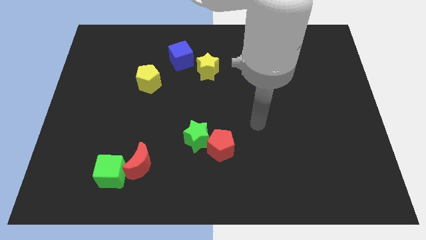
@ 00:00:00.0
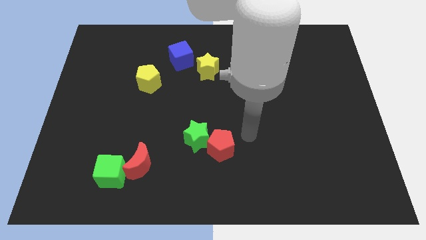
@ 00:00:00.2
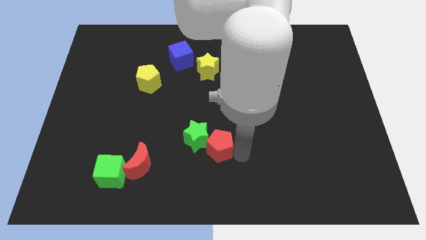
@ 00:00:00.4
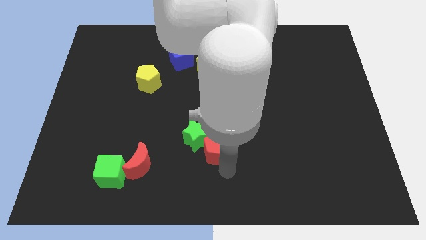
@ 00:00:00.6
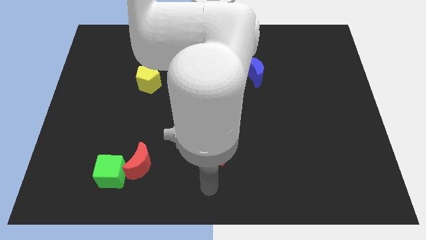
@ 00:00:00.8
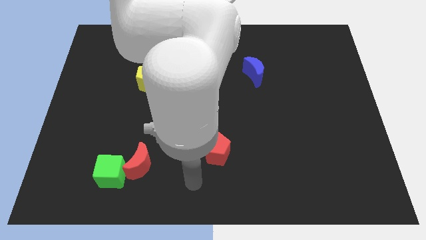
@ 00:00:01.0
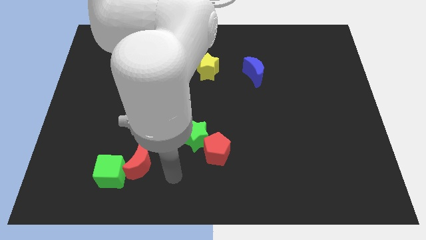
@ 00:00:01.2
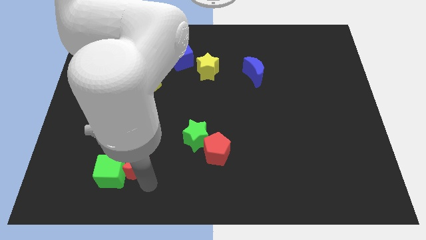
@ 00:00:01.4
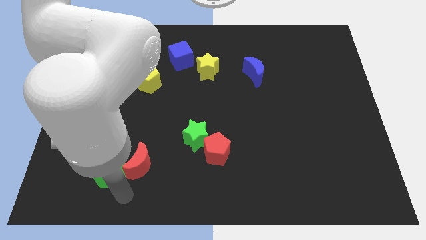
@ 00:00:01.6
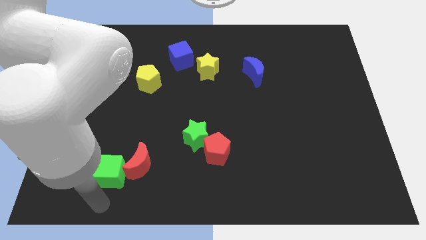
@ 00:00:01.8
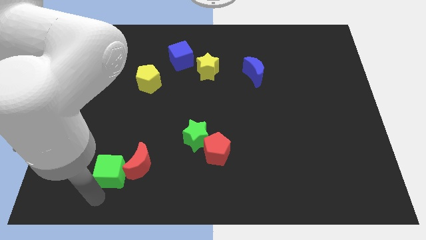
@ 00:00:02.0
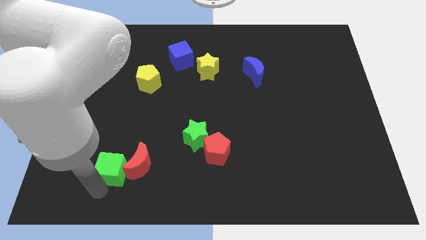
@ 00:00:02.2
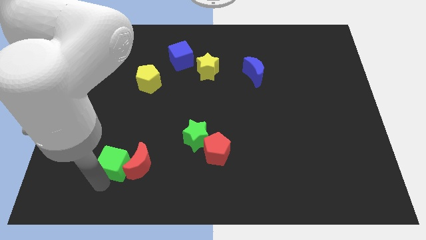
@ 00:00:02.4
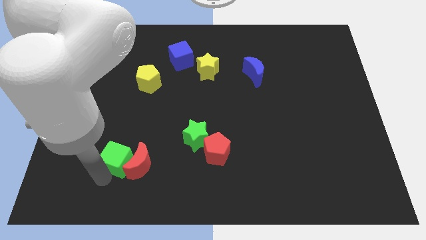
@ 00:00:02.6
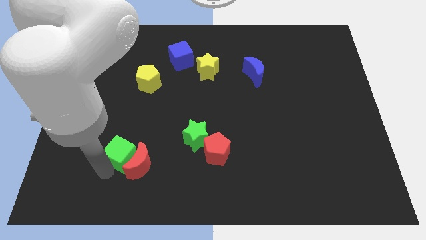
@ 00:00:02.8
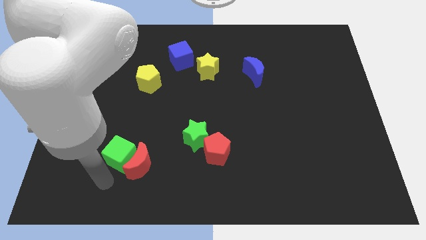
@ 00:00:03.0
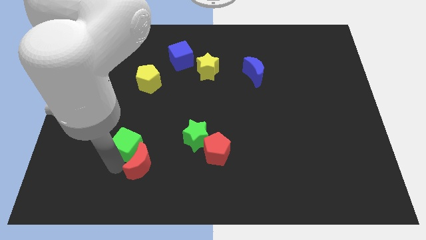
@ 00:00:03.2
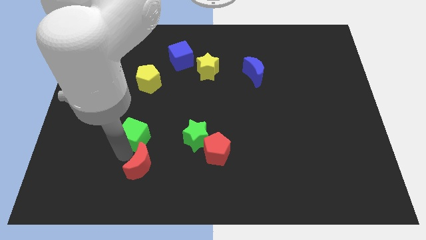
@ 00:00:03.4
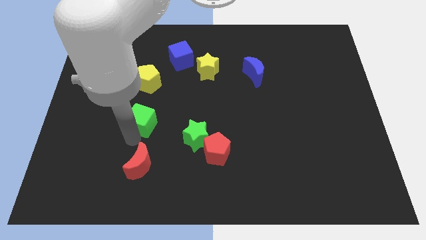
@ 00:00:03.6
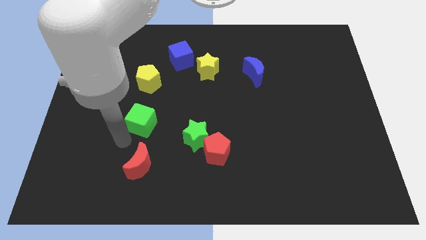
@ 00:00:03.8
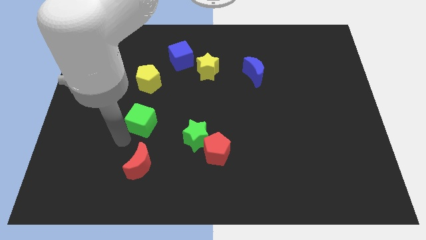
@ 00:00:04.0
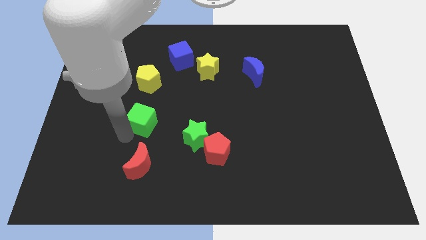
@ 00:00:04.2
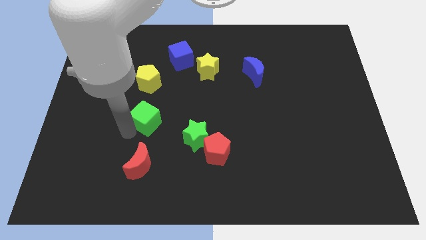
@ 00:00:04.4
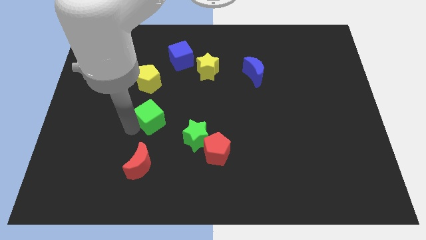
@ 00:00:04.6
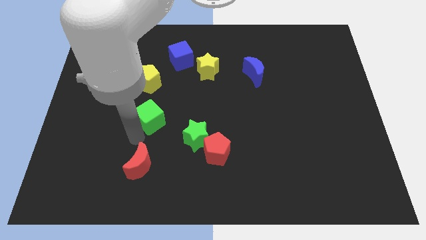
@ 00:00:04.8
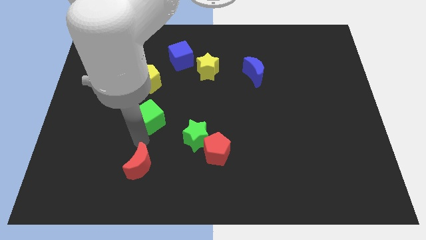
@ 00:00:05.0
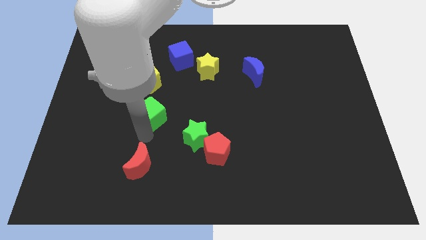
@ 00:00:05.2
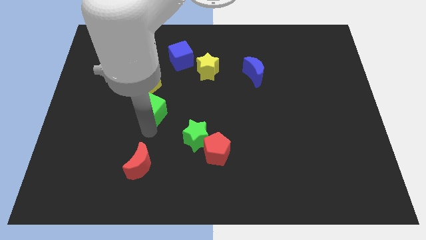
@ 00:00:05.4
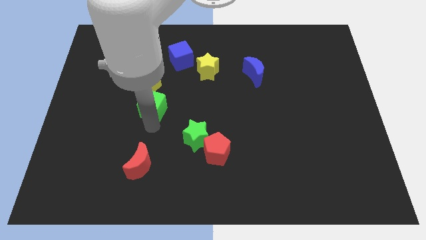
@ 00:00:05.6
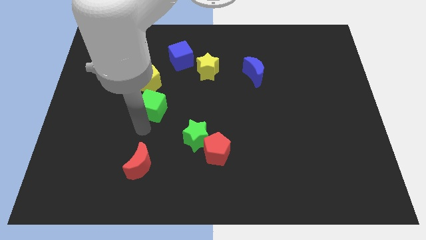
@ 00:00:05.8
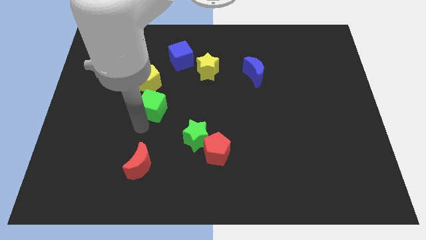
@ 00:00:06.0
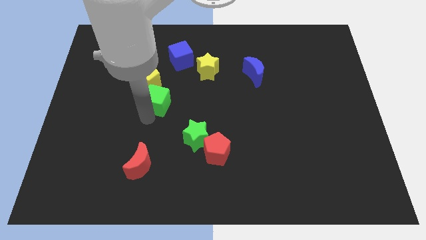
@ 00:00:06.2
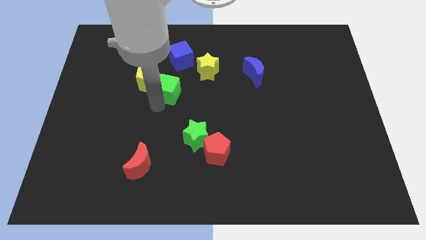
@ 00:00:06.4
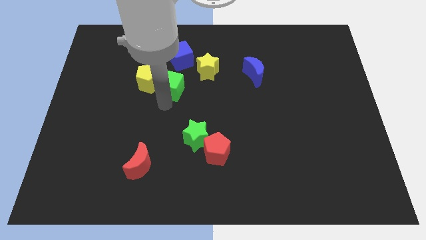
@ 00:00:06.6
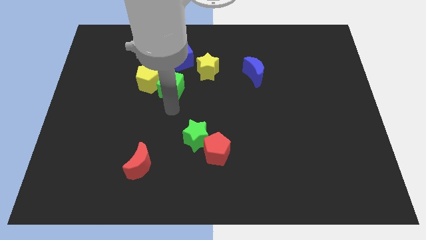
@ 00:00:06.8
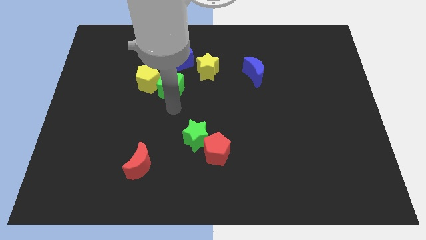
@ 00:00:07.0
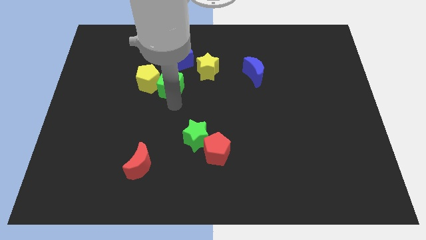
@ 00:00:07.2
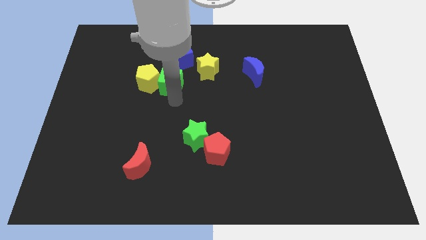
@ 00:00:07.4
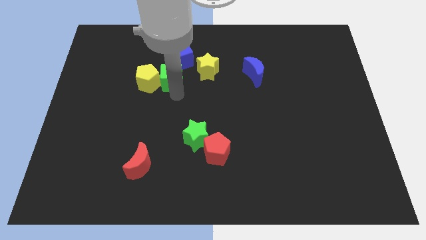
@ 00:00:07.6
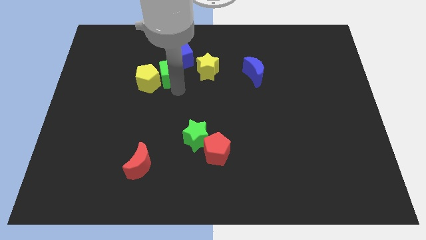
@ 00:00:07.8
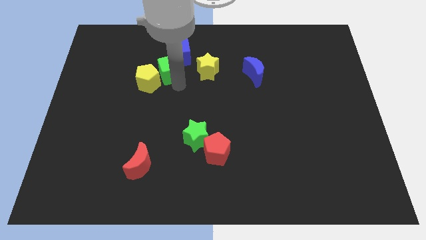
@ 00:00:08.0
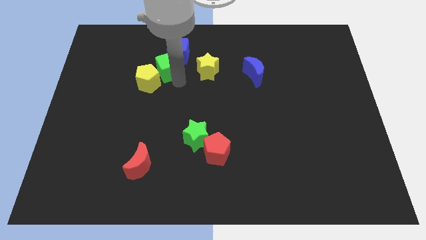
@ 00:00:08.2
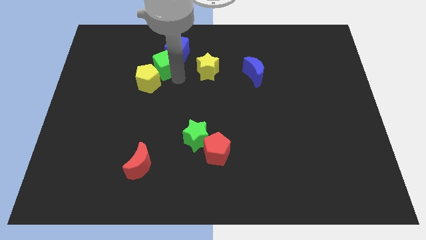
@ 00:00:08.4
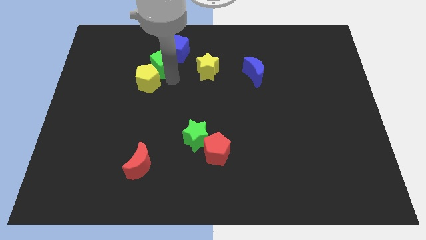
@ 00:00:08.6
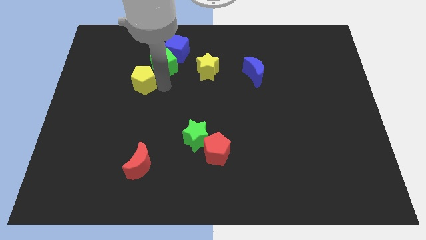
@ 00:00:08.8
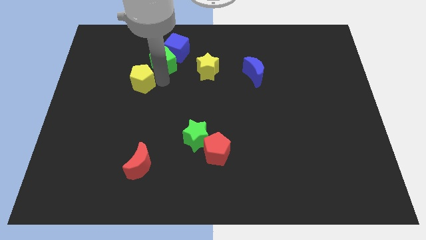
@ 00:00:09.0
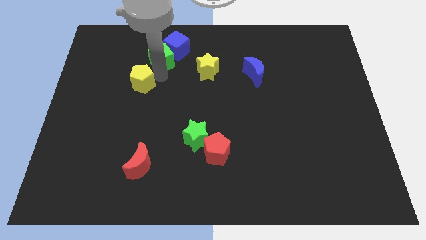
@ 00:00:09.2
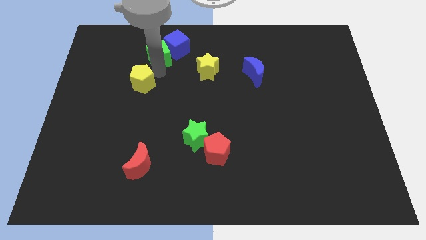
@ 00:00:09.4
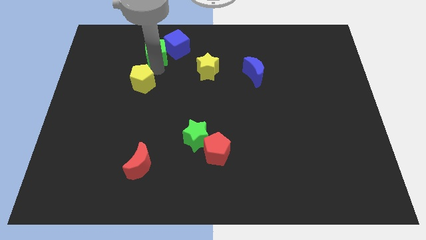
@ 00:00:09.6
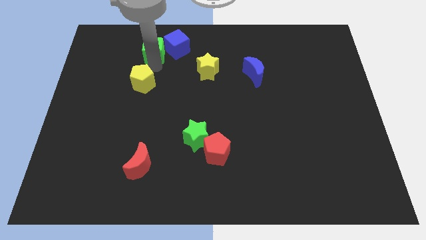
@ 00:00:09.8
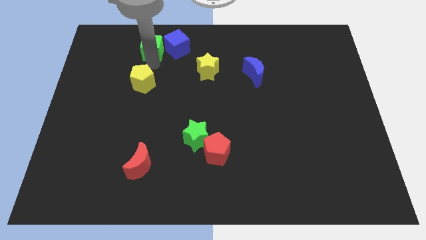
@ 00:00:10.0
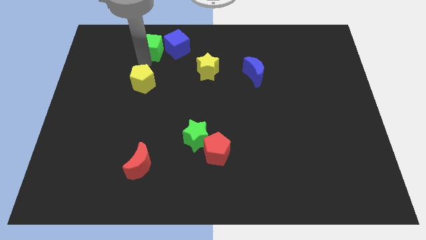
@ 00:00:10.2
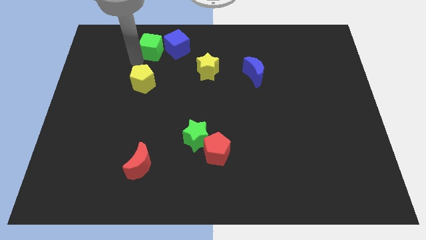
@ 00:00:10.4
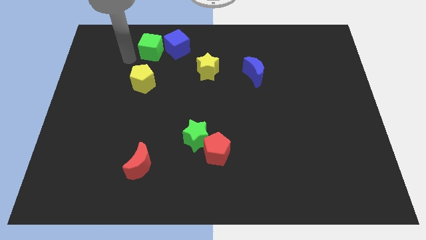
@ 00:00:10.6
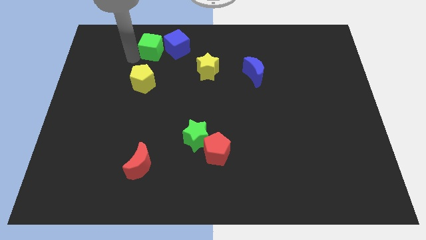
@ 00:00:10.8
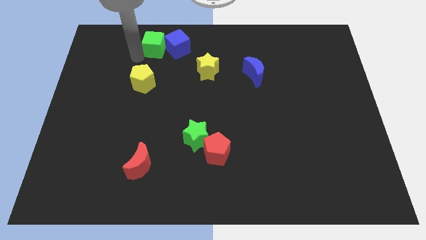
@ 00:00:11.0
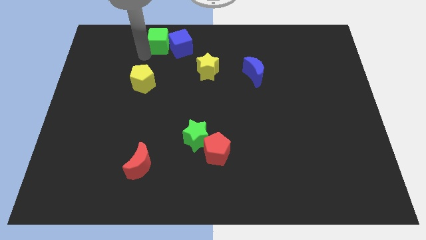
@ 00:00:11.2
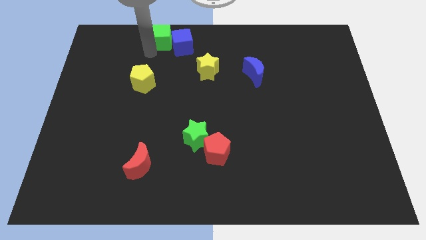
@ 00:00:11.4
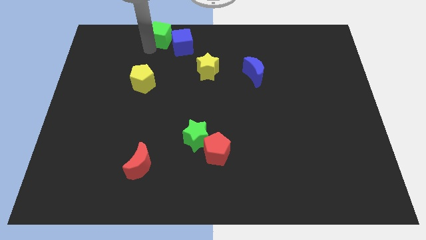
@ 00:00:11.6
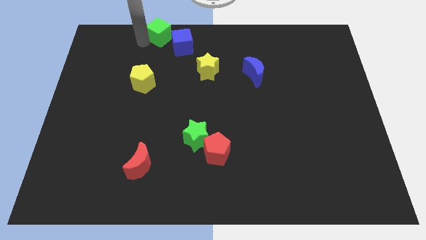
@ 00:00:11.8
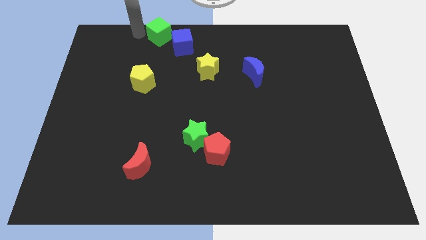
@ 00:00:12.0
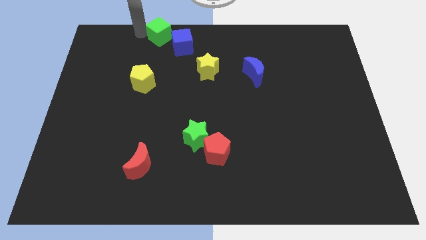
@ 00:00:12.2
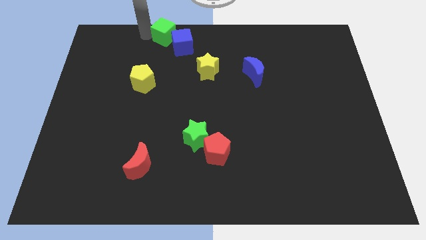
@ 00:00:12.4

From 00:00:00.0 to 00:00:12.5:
move the green cube to the top
